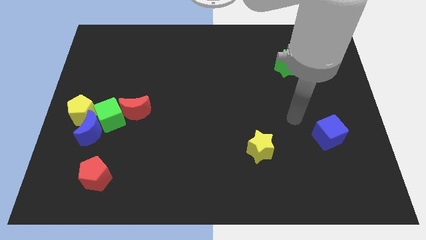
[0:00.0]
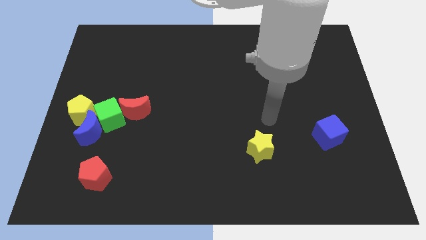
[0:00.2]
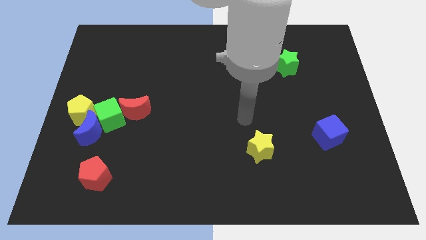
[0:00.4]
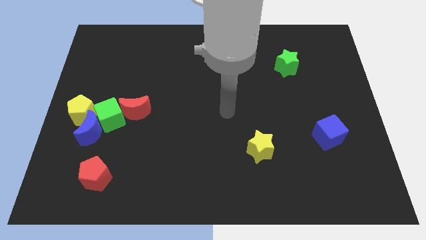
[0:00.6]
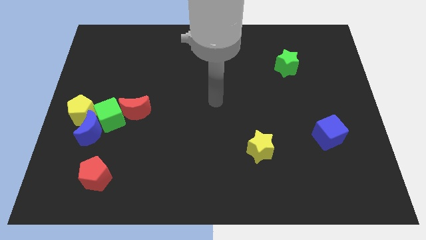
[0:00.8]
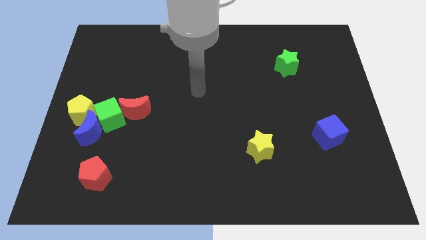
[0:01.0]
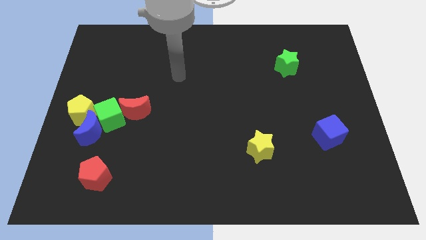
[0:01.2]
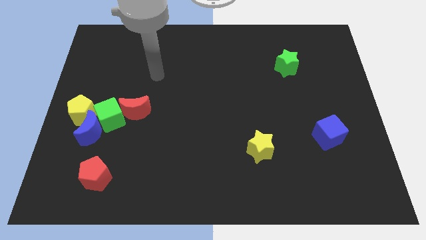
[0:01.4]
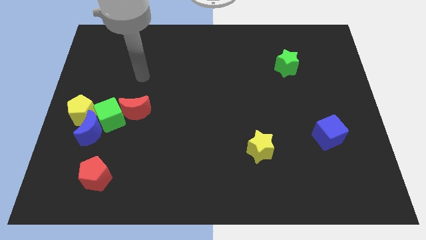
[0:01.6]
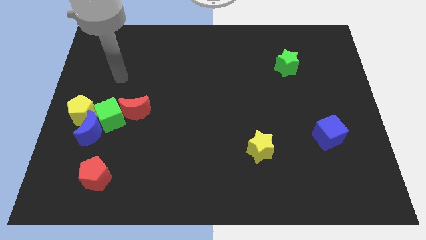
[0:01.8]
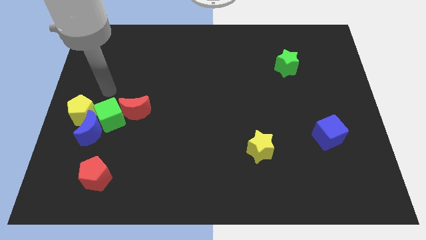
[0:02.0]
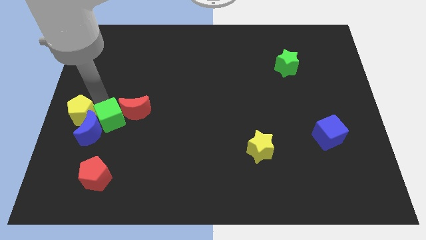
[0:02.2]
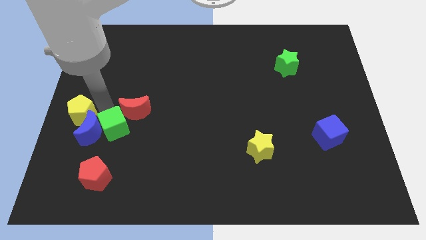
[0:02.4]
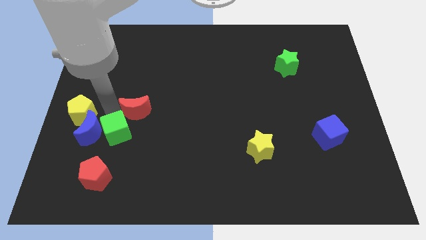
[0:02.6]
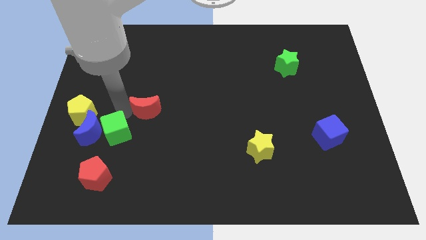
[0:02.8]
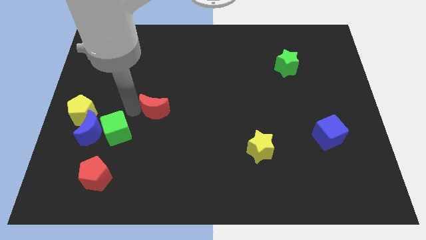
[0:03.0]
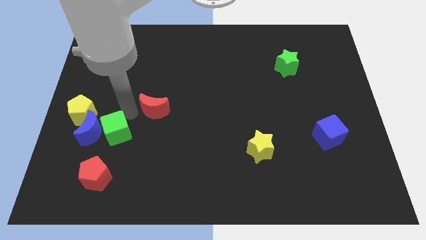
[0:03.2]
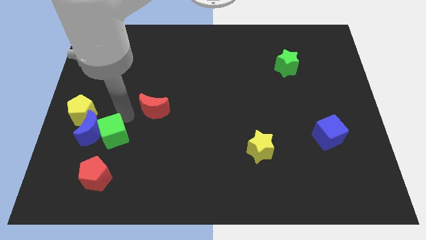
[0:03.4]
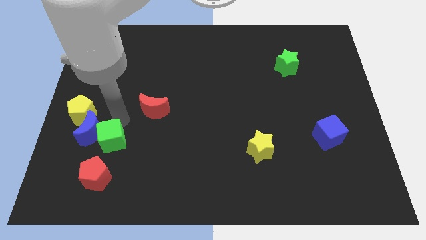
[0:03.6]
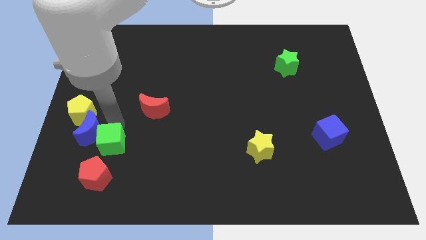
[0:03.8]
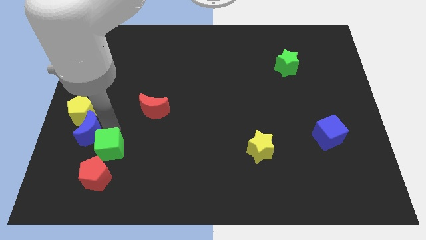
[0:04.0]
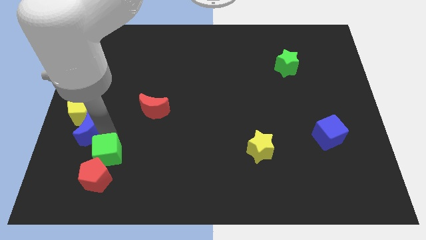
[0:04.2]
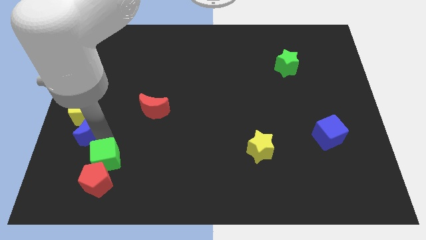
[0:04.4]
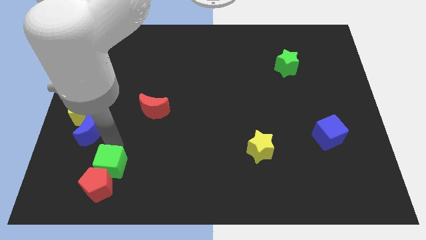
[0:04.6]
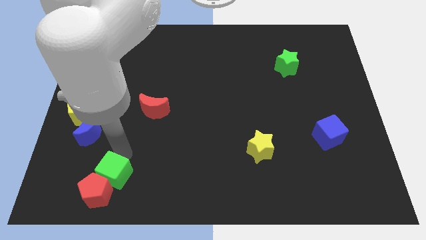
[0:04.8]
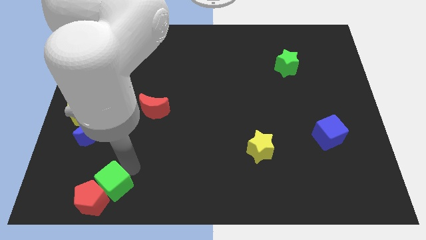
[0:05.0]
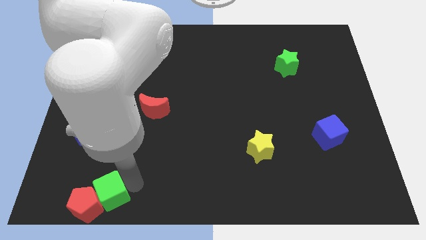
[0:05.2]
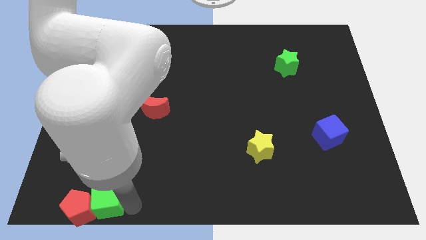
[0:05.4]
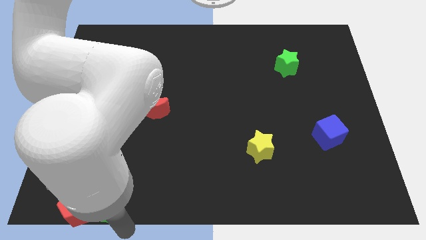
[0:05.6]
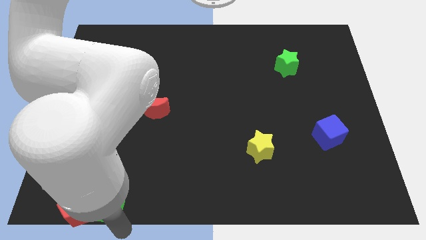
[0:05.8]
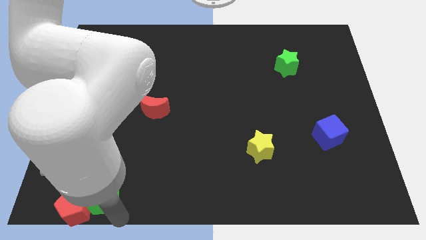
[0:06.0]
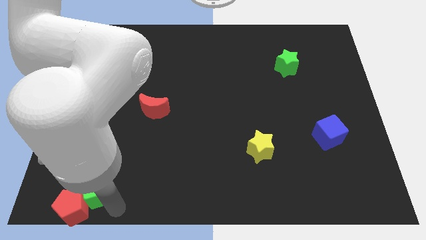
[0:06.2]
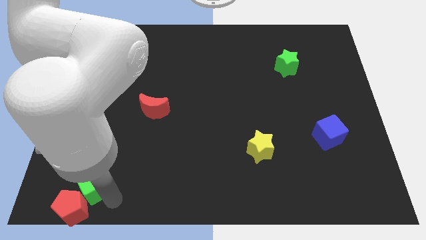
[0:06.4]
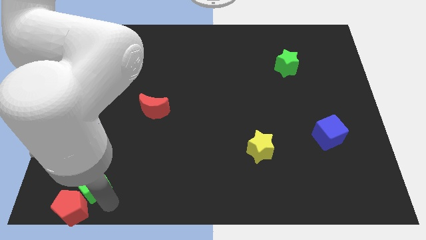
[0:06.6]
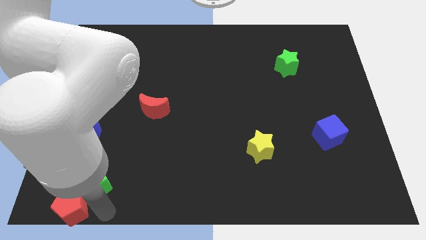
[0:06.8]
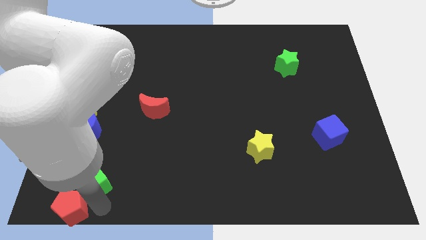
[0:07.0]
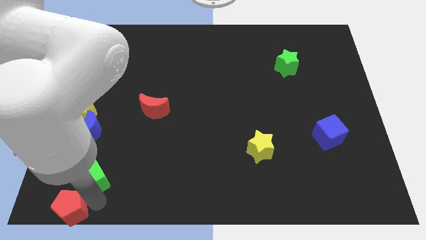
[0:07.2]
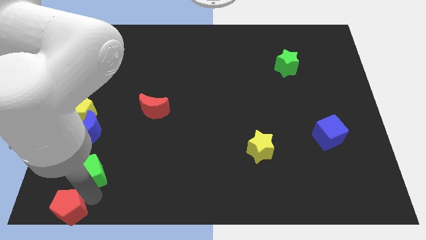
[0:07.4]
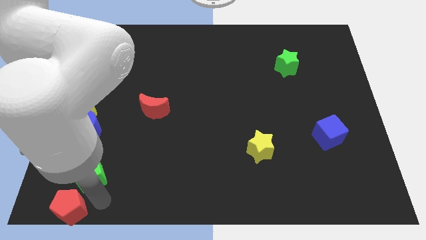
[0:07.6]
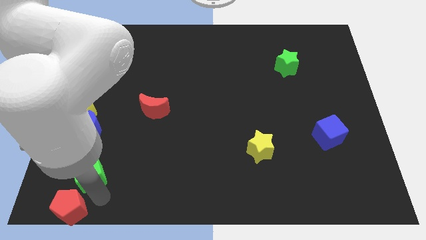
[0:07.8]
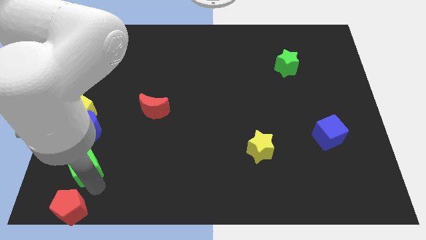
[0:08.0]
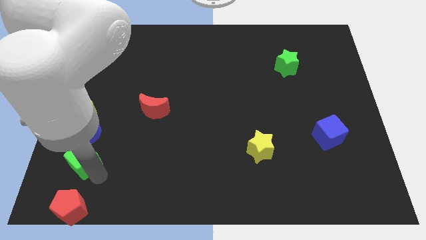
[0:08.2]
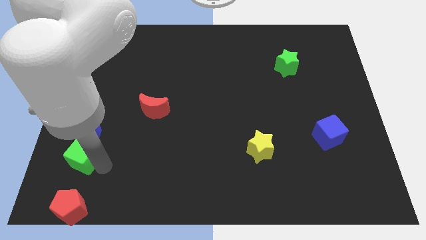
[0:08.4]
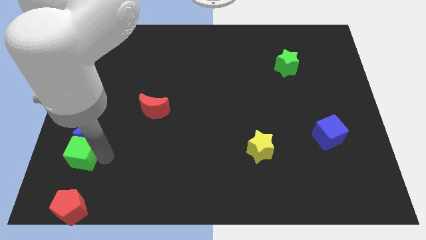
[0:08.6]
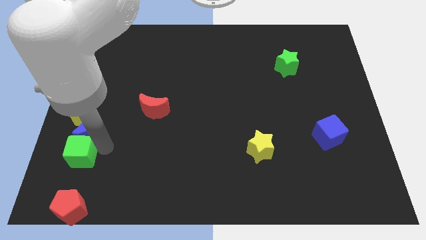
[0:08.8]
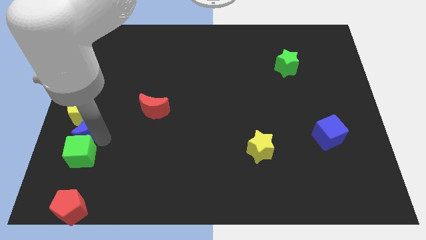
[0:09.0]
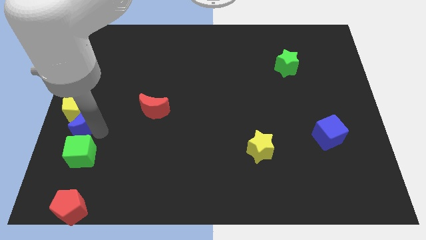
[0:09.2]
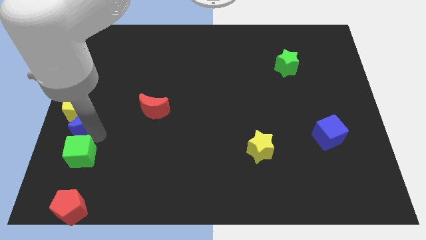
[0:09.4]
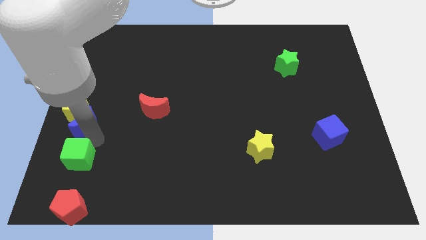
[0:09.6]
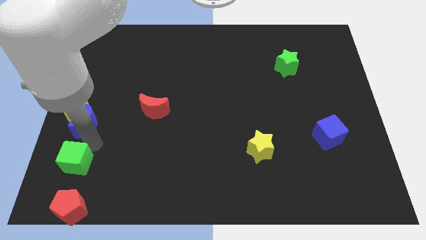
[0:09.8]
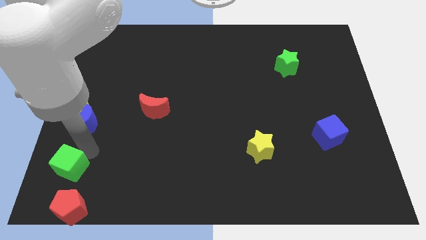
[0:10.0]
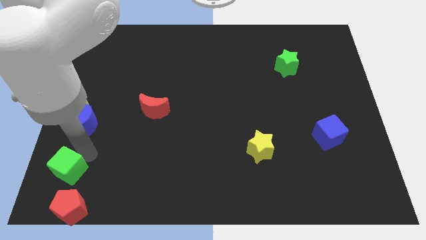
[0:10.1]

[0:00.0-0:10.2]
put the green cube to the bottom left of the board

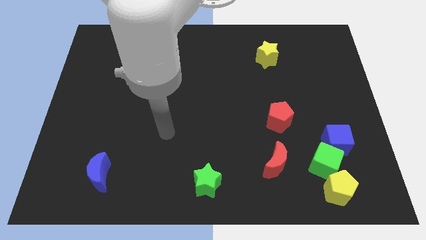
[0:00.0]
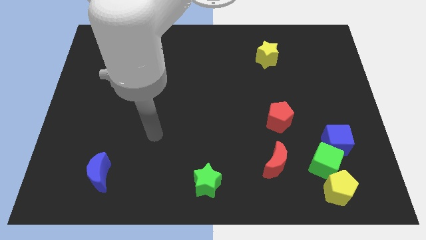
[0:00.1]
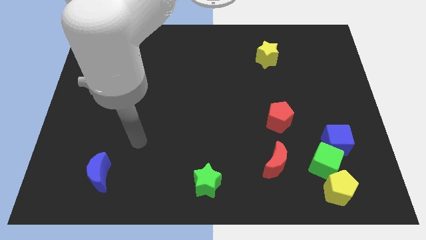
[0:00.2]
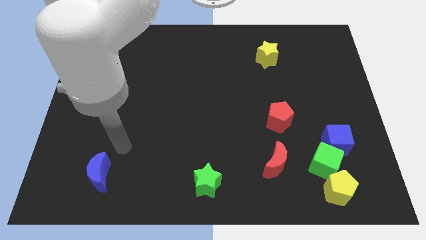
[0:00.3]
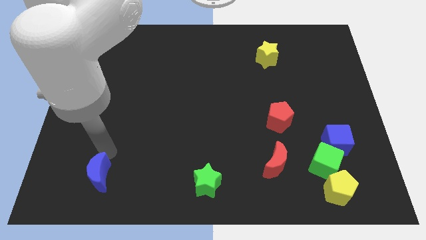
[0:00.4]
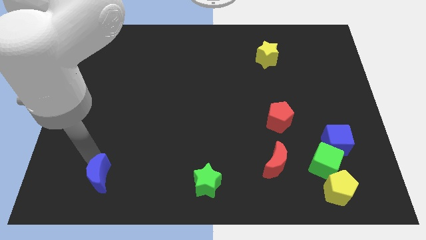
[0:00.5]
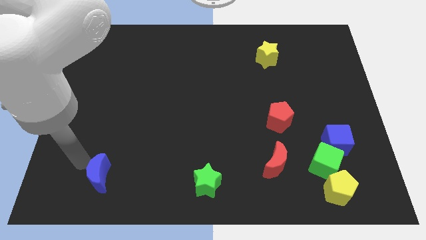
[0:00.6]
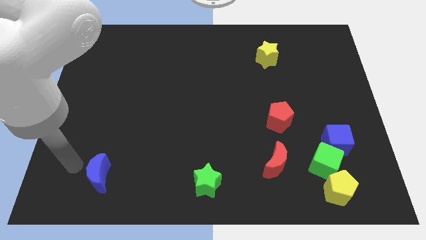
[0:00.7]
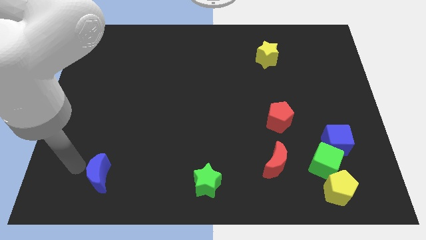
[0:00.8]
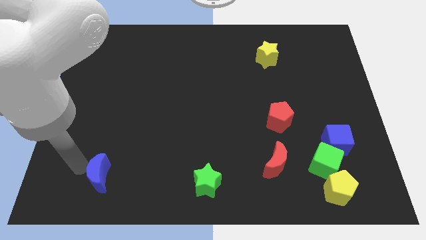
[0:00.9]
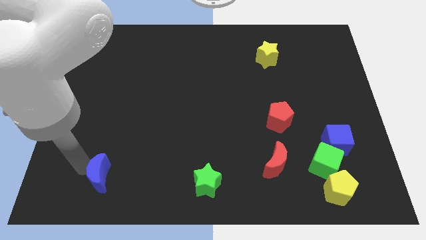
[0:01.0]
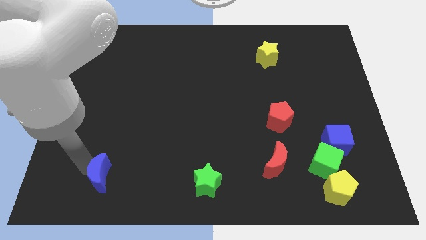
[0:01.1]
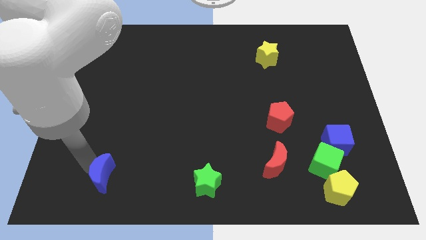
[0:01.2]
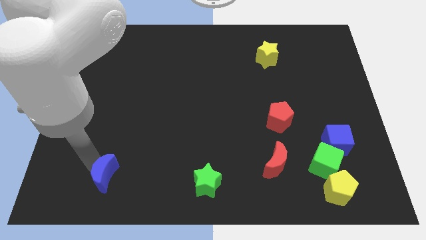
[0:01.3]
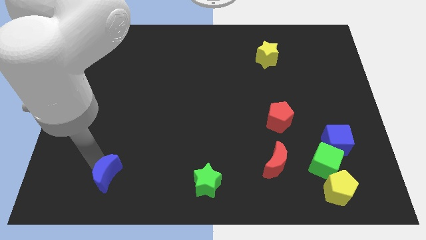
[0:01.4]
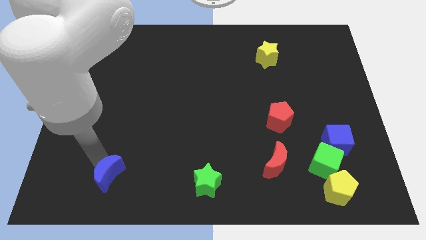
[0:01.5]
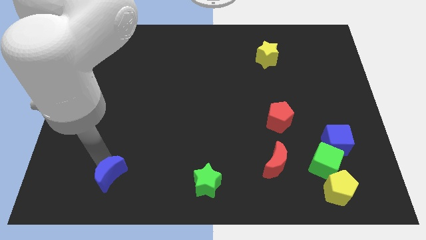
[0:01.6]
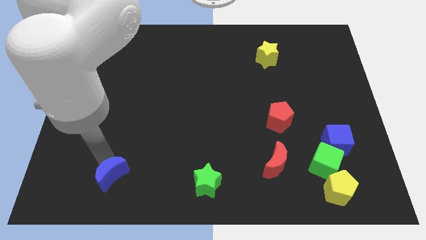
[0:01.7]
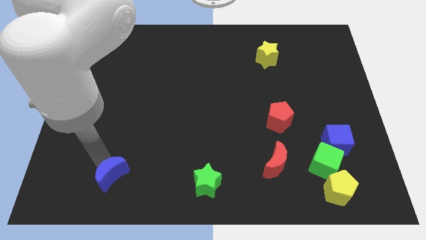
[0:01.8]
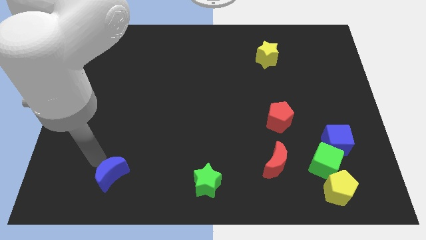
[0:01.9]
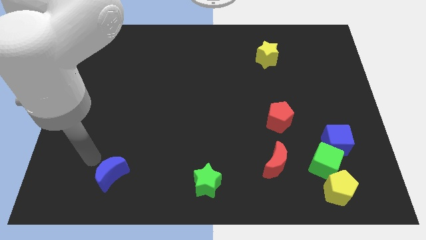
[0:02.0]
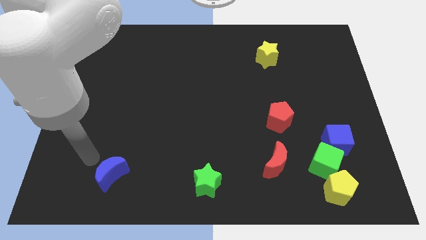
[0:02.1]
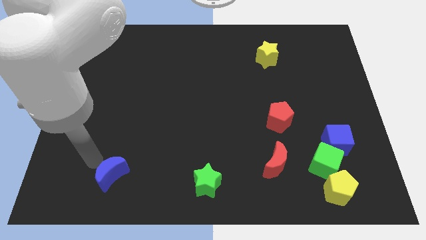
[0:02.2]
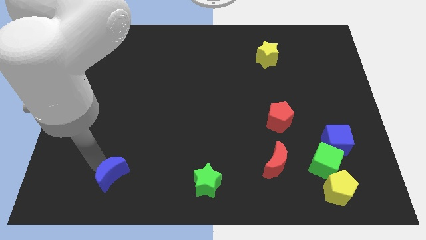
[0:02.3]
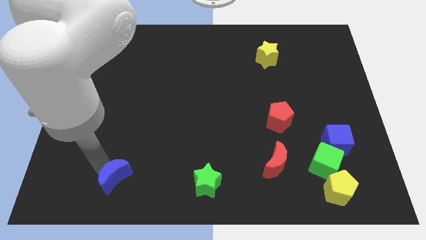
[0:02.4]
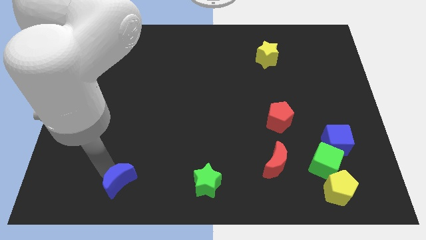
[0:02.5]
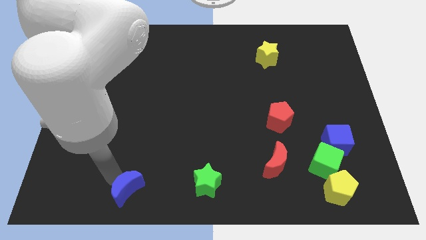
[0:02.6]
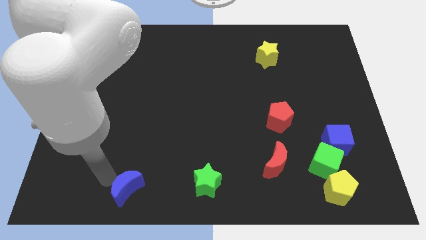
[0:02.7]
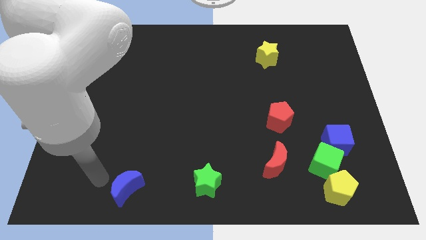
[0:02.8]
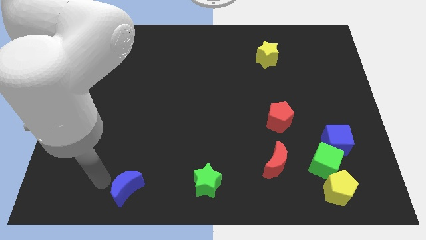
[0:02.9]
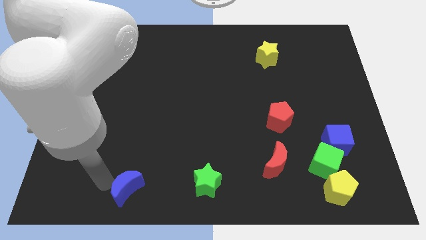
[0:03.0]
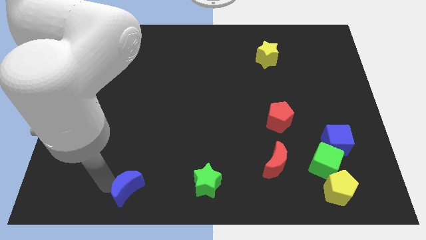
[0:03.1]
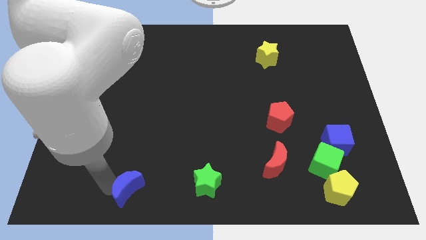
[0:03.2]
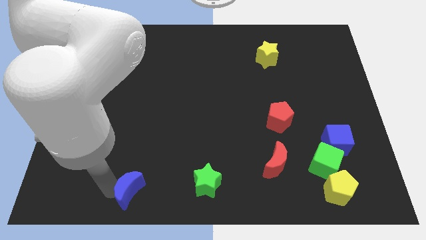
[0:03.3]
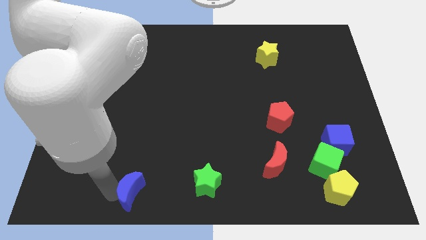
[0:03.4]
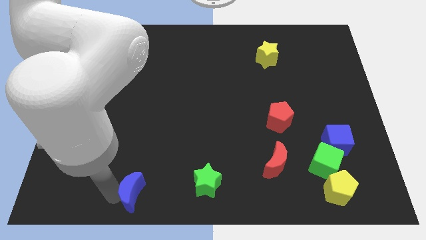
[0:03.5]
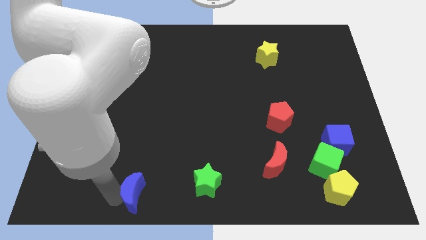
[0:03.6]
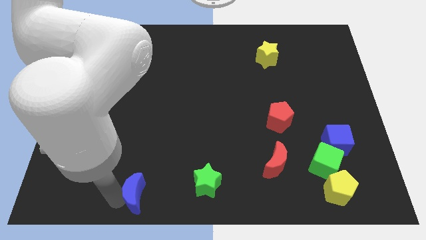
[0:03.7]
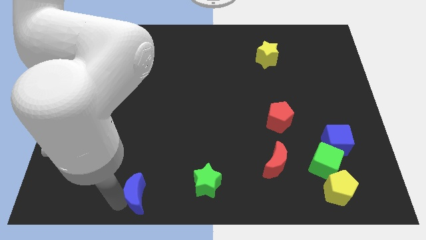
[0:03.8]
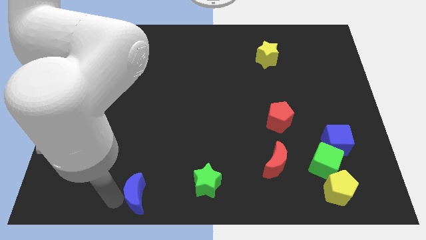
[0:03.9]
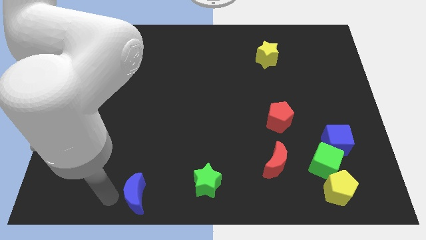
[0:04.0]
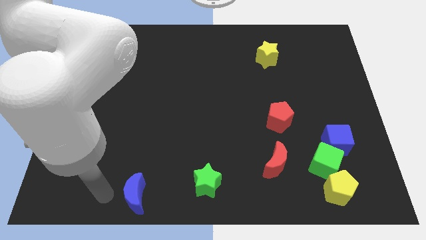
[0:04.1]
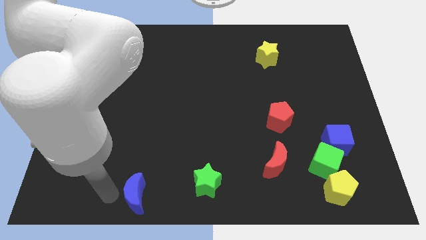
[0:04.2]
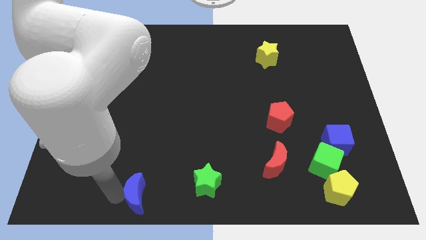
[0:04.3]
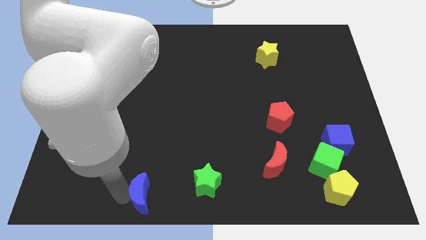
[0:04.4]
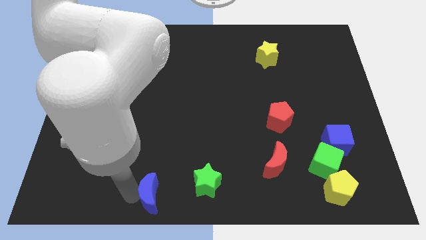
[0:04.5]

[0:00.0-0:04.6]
put the blue moon to the bottom side
